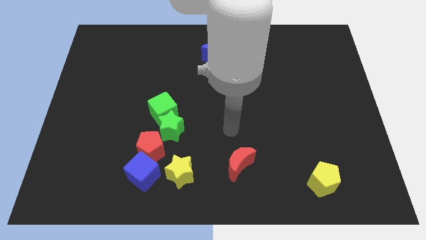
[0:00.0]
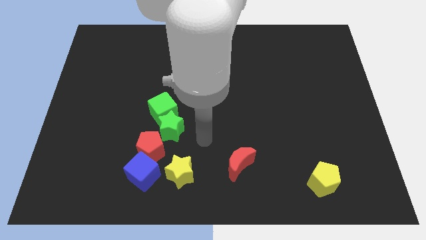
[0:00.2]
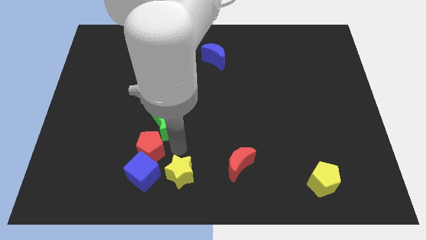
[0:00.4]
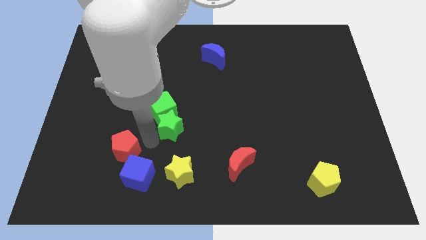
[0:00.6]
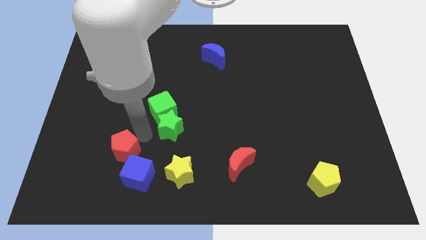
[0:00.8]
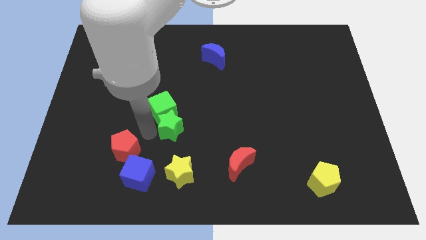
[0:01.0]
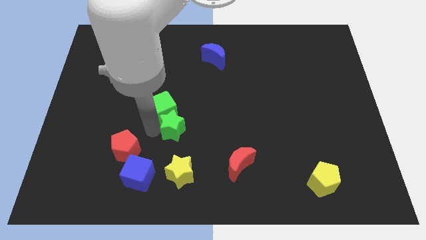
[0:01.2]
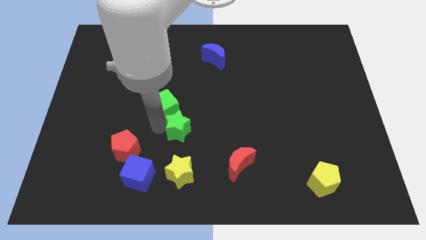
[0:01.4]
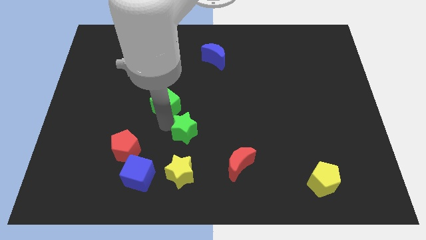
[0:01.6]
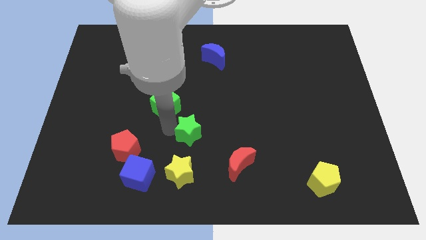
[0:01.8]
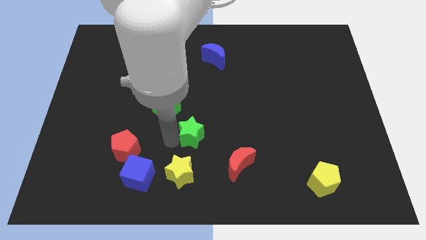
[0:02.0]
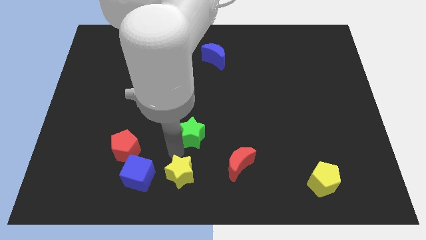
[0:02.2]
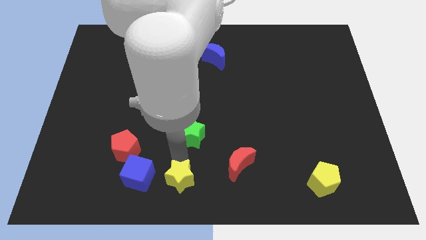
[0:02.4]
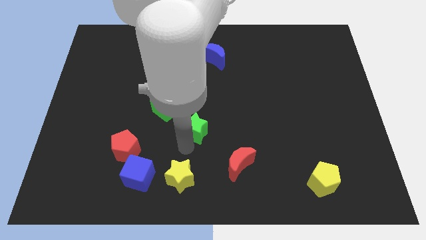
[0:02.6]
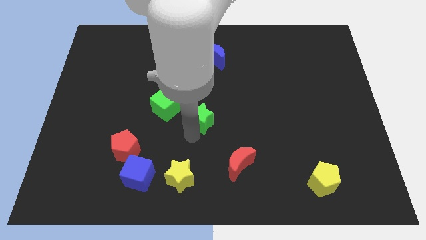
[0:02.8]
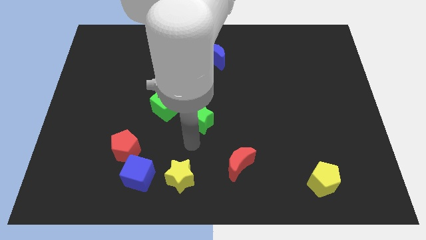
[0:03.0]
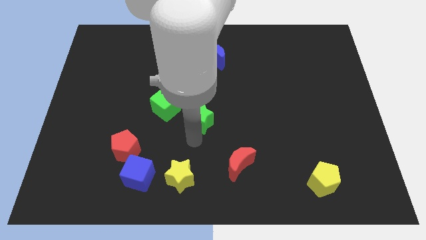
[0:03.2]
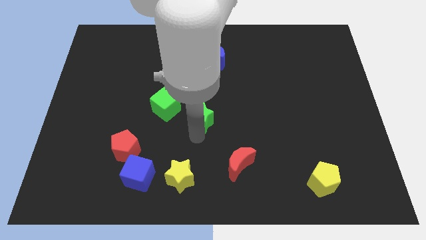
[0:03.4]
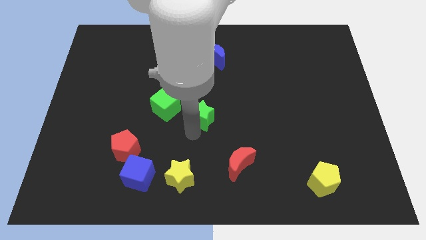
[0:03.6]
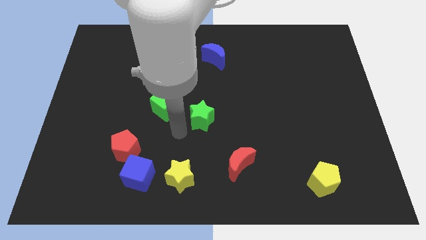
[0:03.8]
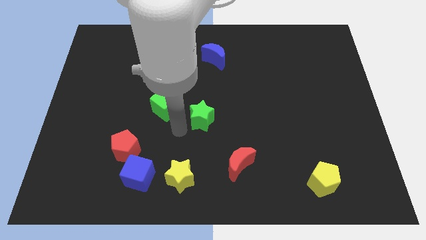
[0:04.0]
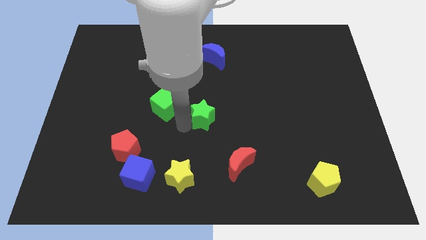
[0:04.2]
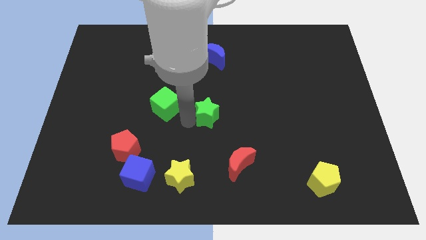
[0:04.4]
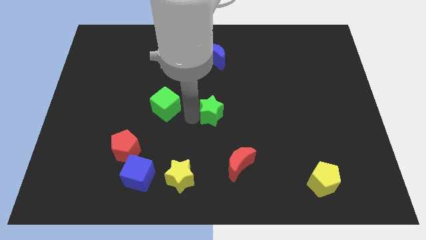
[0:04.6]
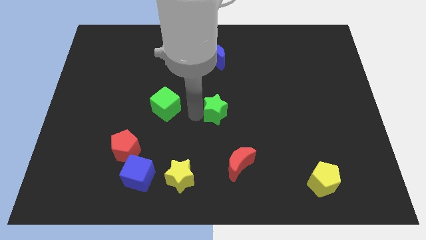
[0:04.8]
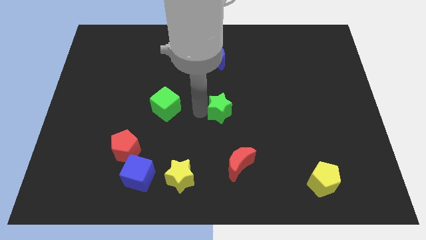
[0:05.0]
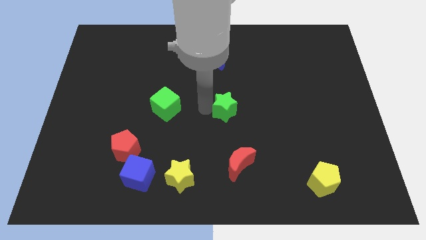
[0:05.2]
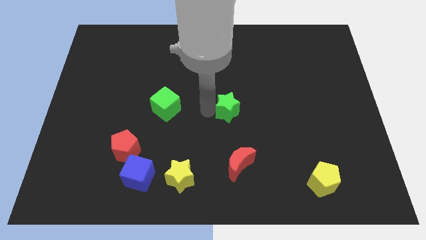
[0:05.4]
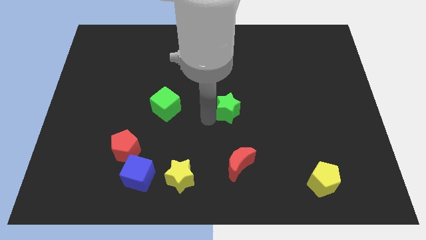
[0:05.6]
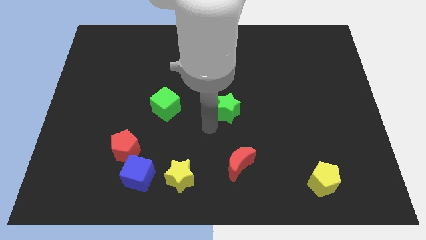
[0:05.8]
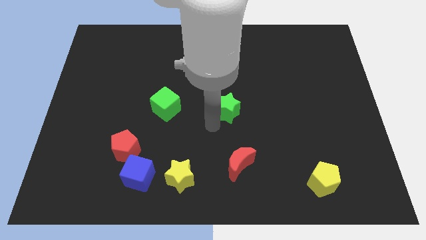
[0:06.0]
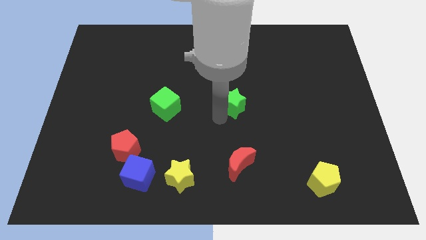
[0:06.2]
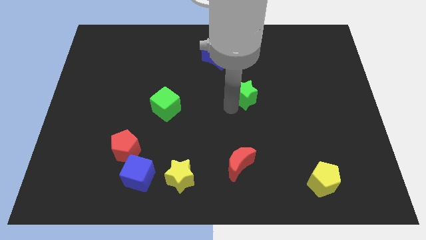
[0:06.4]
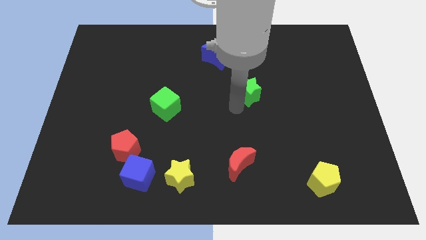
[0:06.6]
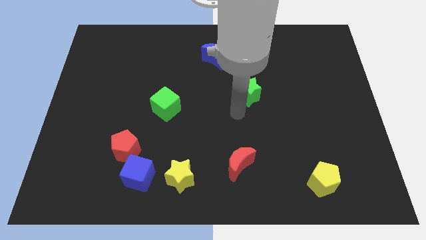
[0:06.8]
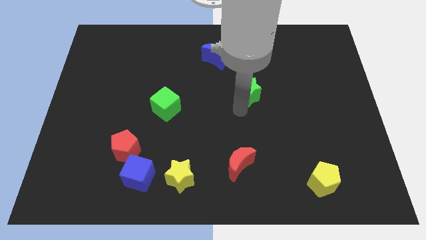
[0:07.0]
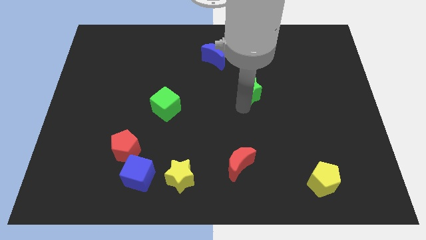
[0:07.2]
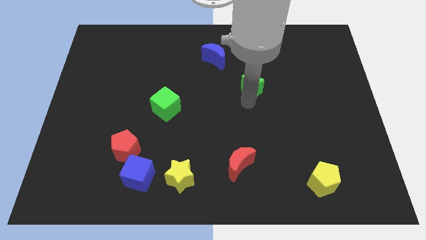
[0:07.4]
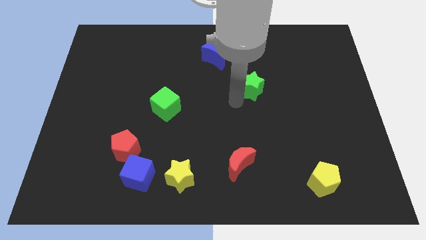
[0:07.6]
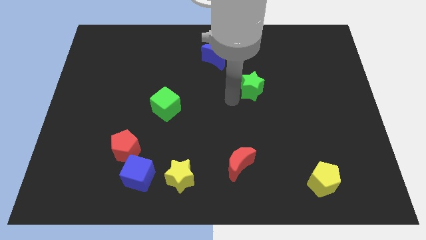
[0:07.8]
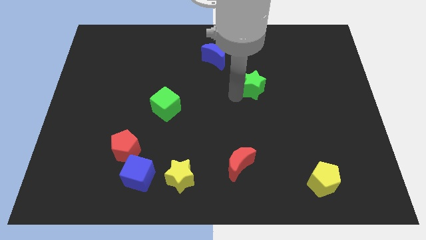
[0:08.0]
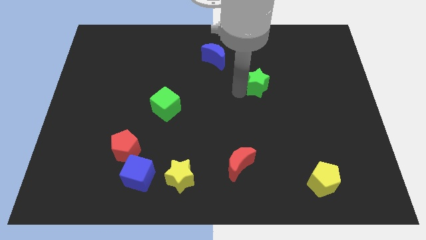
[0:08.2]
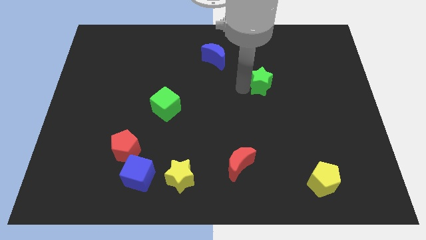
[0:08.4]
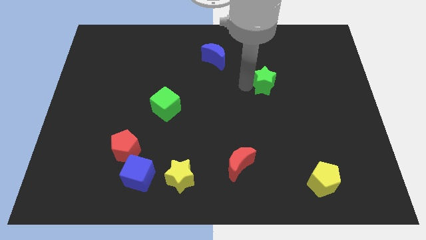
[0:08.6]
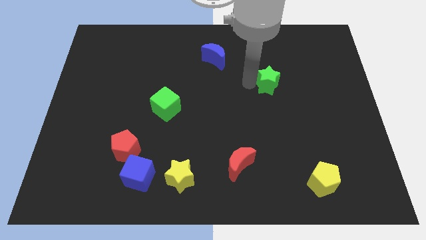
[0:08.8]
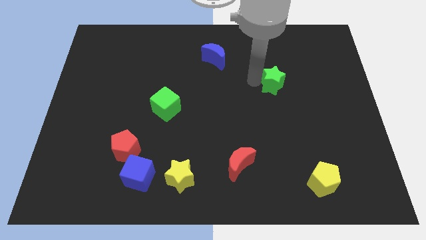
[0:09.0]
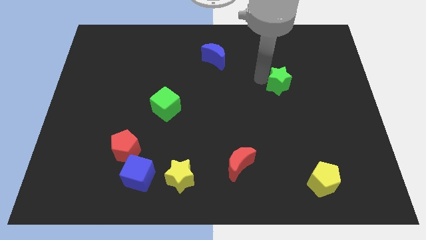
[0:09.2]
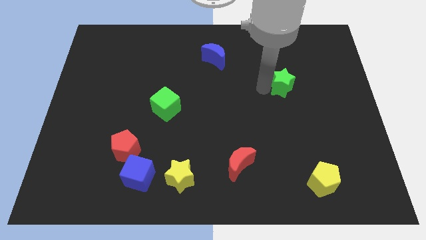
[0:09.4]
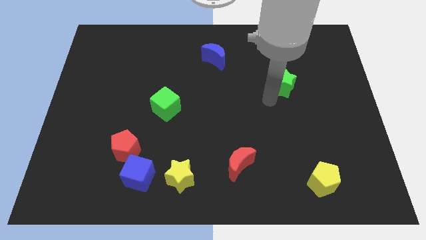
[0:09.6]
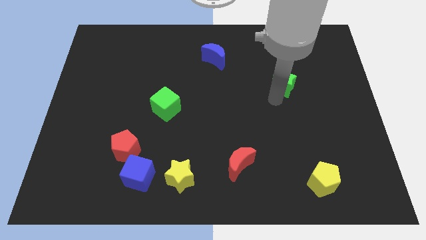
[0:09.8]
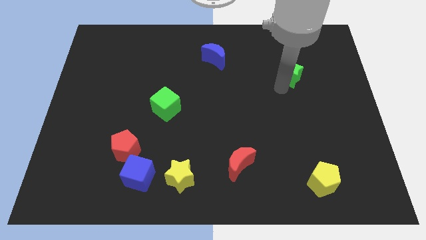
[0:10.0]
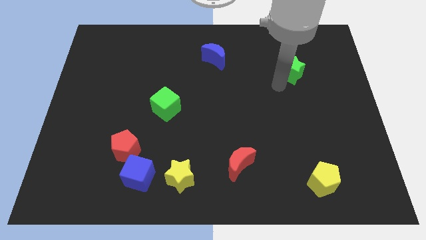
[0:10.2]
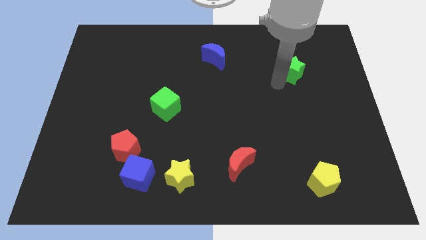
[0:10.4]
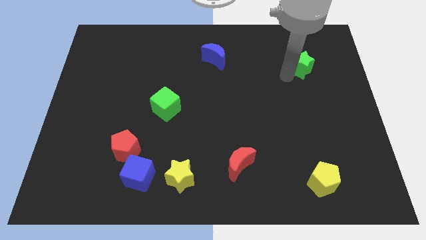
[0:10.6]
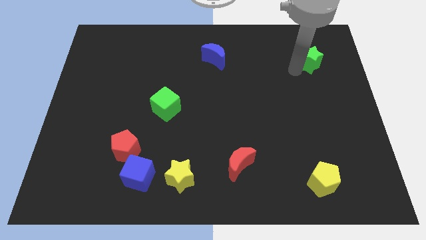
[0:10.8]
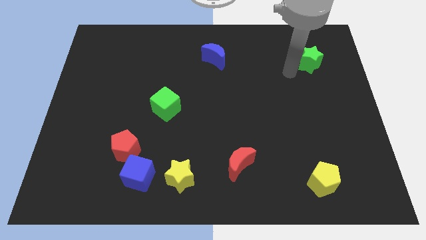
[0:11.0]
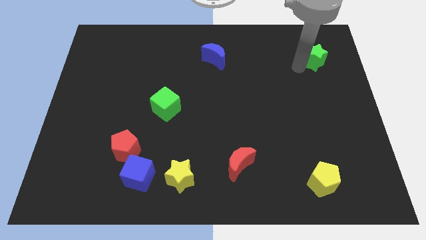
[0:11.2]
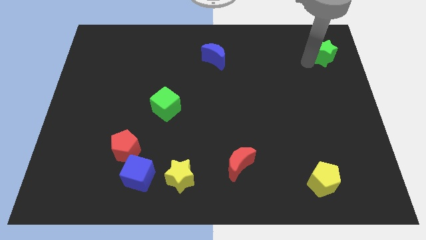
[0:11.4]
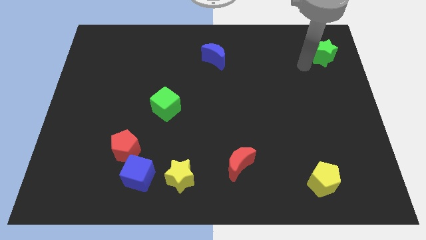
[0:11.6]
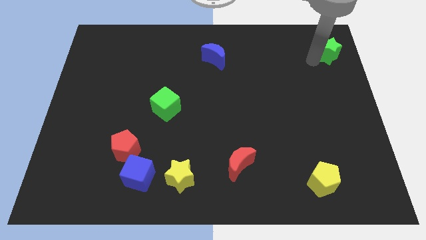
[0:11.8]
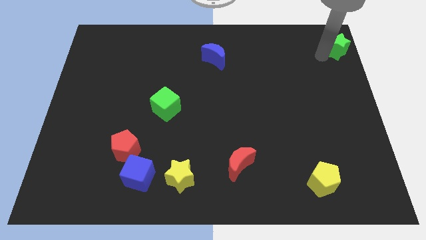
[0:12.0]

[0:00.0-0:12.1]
move the green star to the top right of the board
